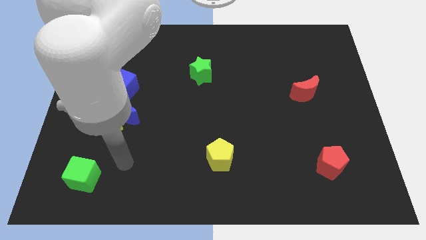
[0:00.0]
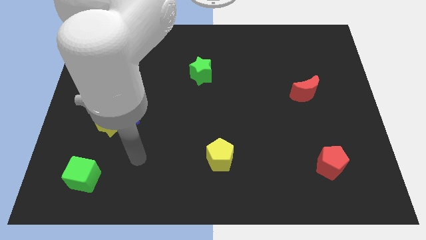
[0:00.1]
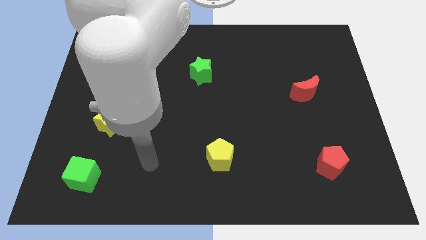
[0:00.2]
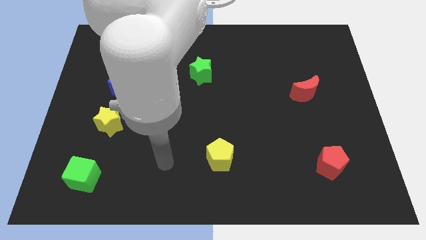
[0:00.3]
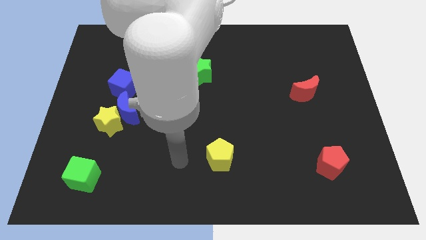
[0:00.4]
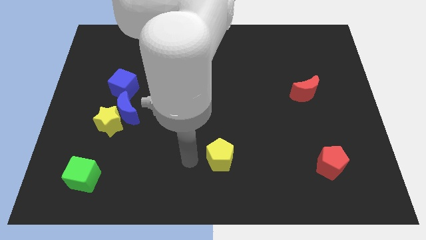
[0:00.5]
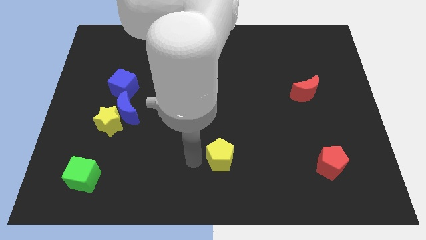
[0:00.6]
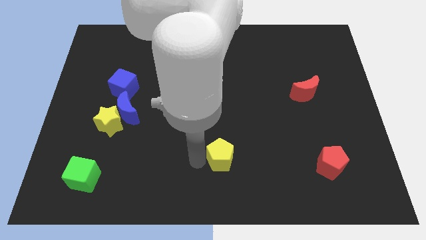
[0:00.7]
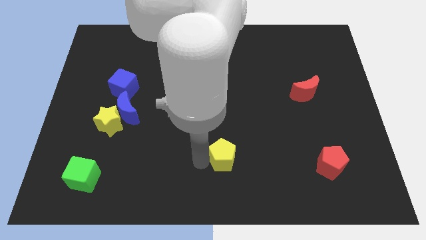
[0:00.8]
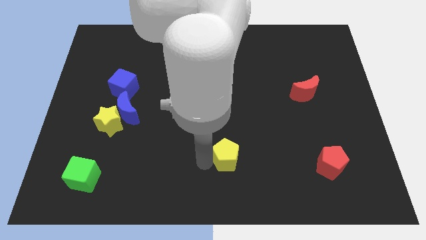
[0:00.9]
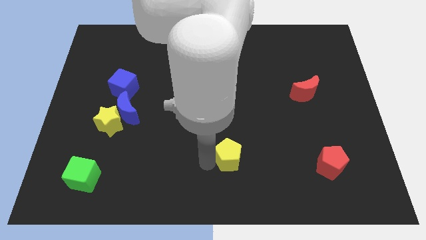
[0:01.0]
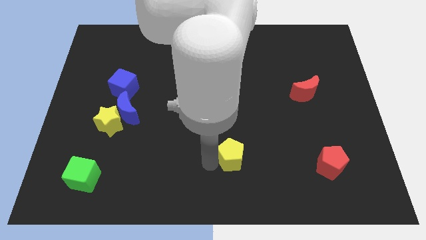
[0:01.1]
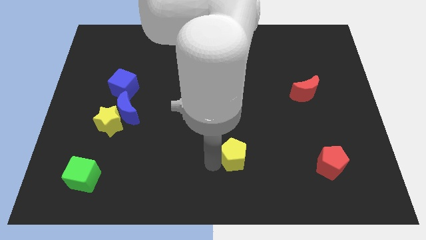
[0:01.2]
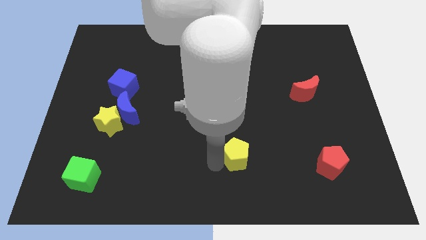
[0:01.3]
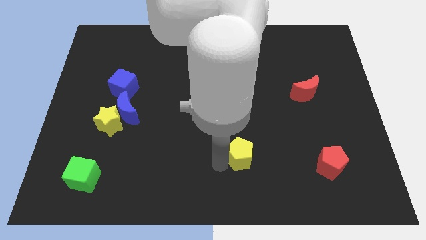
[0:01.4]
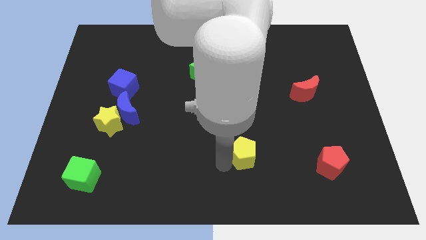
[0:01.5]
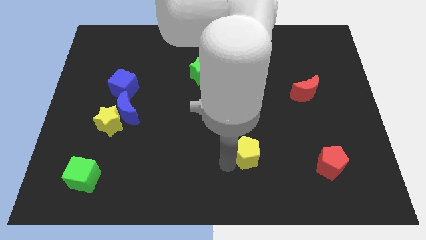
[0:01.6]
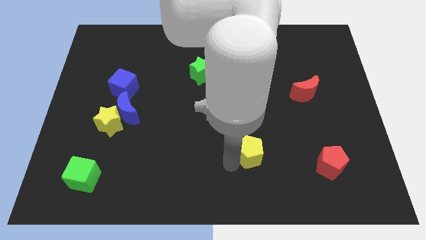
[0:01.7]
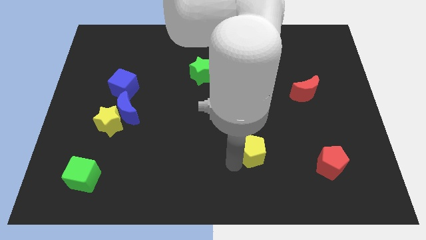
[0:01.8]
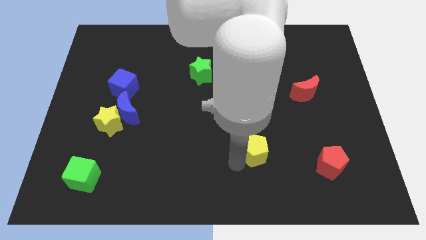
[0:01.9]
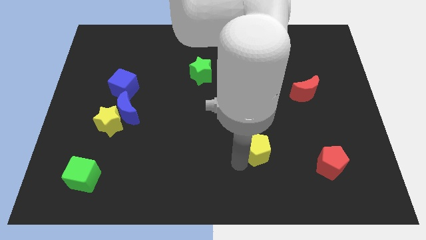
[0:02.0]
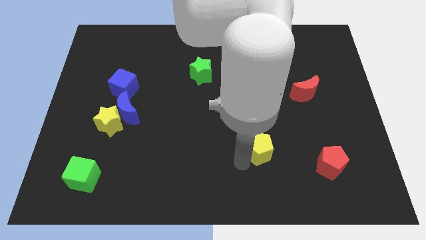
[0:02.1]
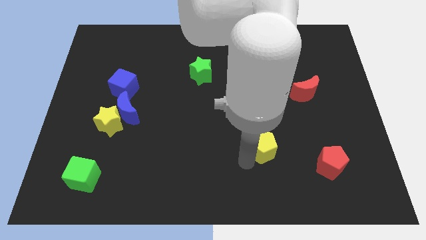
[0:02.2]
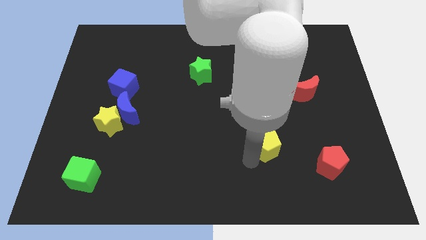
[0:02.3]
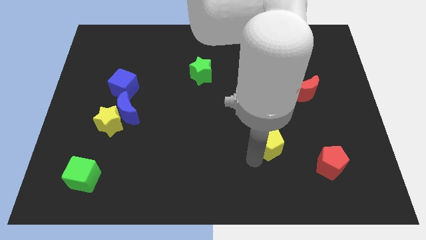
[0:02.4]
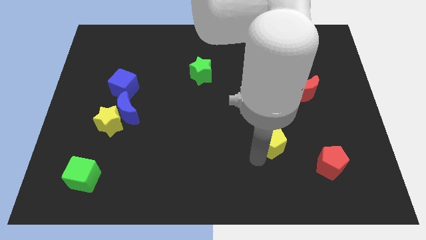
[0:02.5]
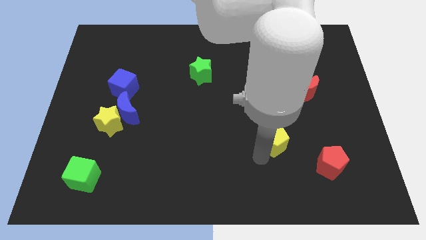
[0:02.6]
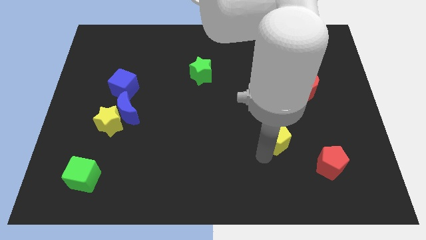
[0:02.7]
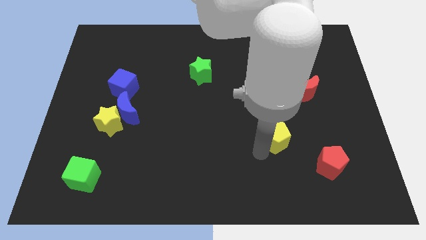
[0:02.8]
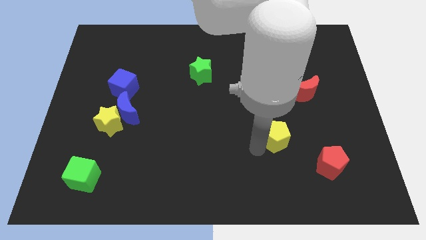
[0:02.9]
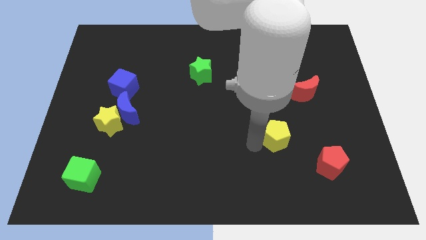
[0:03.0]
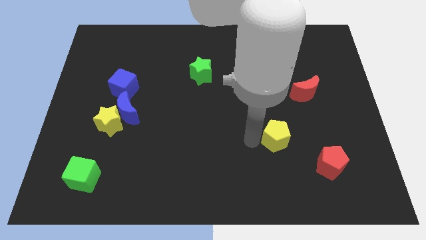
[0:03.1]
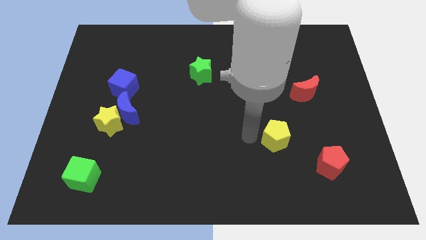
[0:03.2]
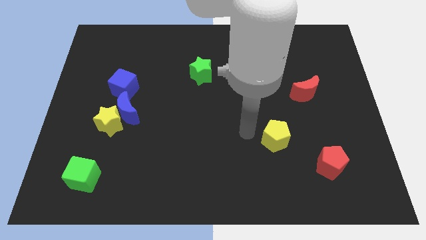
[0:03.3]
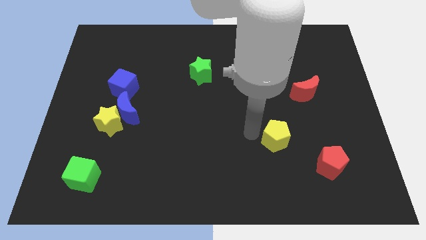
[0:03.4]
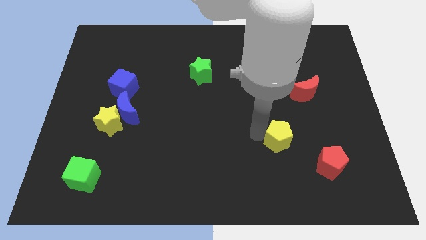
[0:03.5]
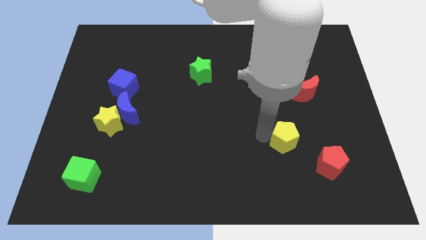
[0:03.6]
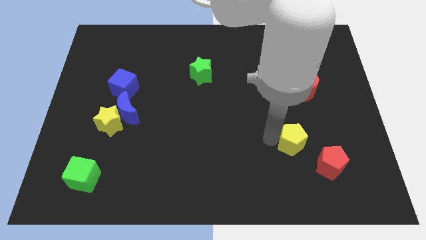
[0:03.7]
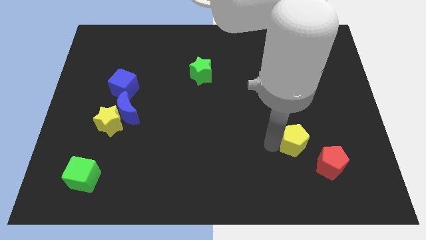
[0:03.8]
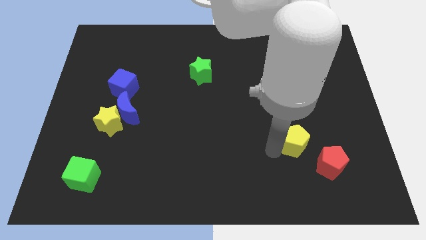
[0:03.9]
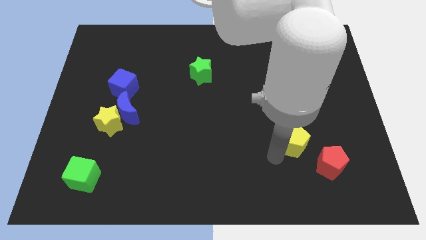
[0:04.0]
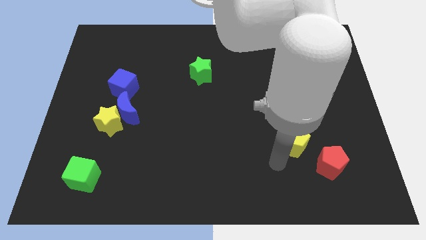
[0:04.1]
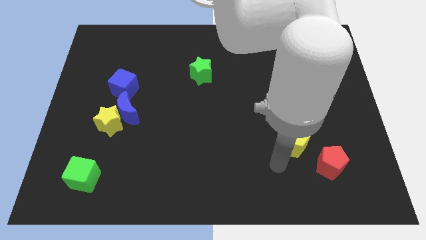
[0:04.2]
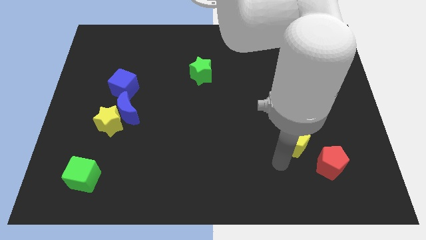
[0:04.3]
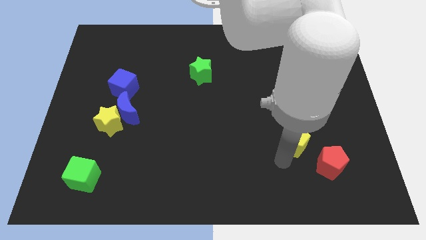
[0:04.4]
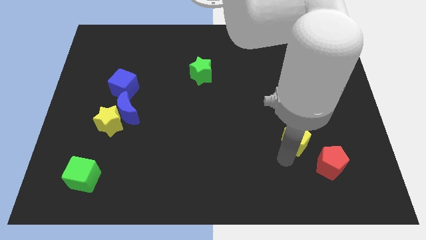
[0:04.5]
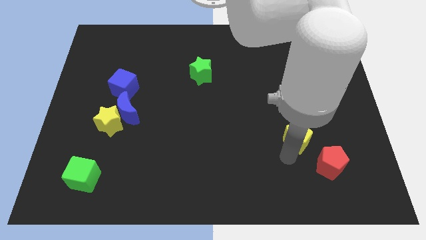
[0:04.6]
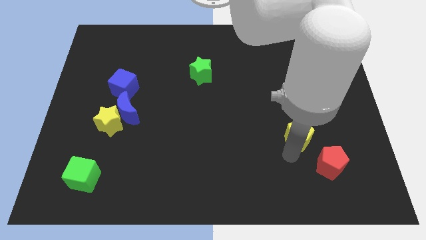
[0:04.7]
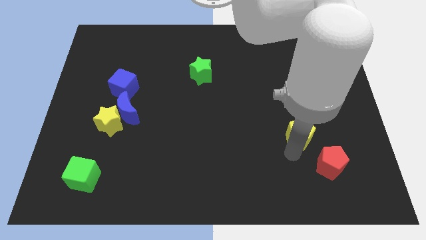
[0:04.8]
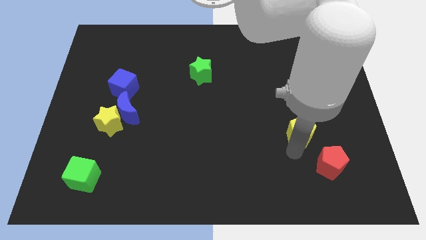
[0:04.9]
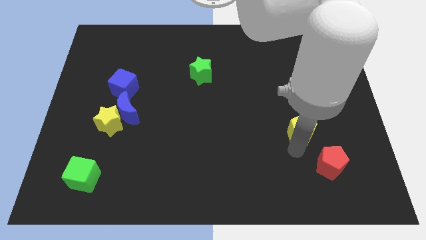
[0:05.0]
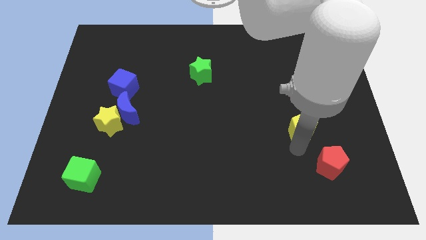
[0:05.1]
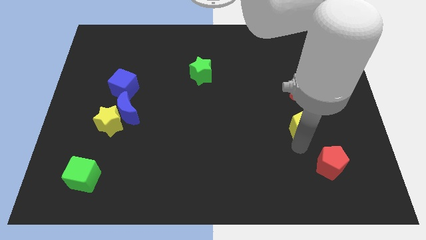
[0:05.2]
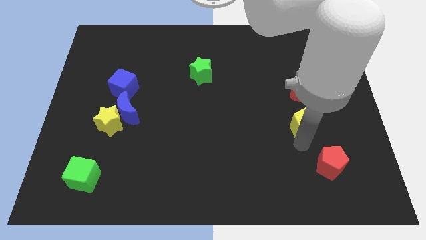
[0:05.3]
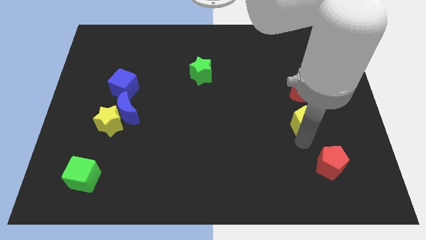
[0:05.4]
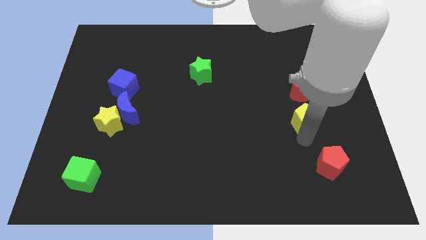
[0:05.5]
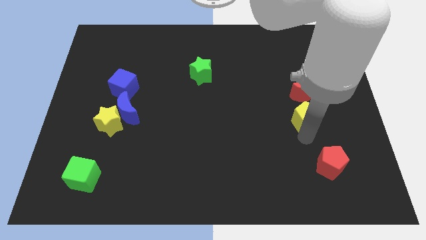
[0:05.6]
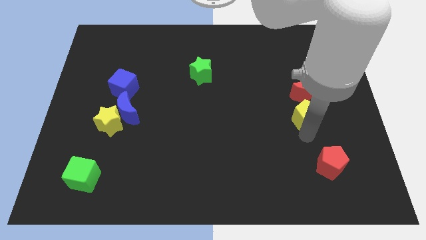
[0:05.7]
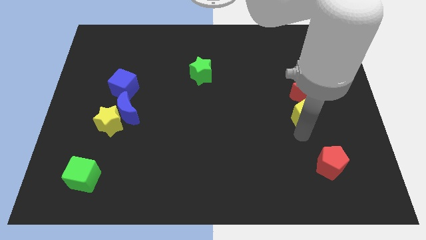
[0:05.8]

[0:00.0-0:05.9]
move the yellow pentagon diagonally upwards and to the right

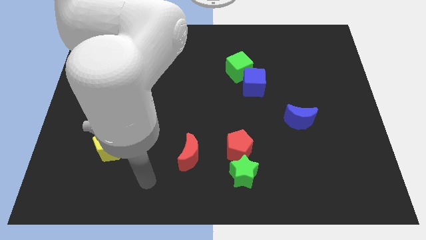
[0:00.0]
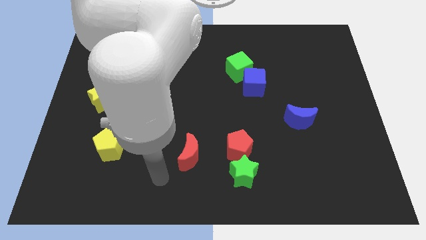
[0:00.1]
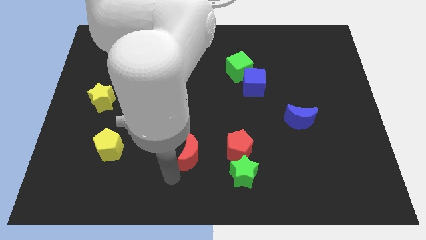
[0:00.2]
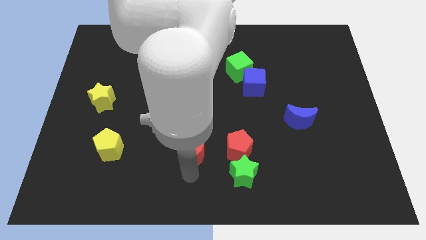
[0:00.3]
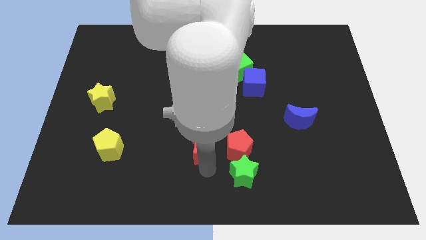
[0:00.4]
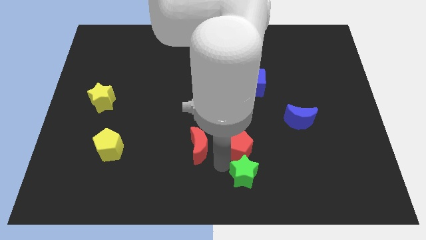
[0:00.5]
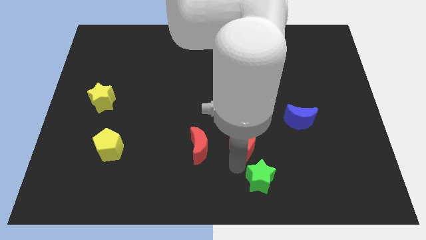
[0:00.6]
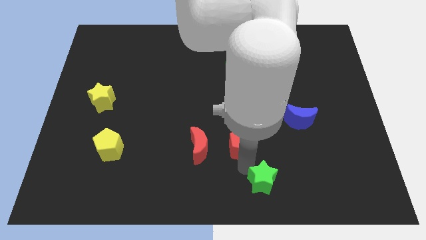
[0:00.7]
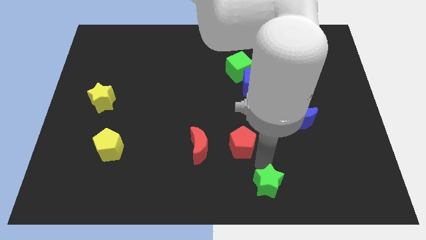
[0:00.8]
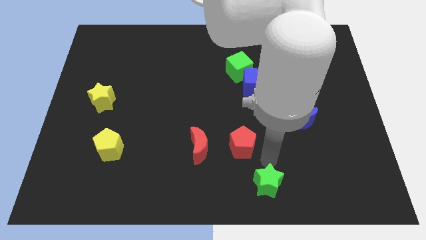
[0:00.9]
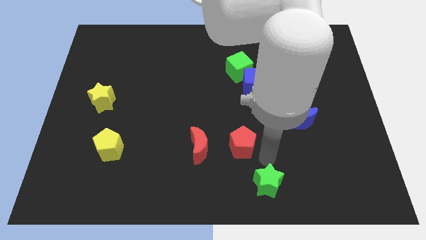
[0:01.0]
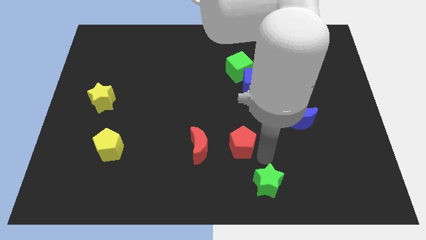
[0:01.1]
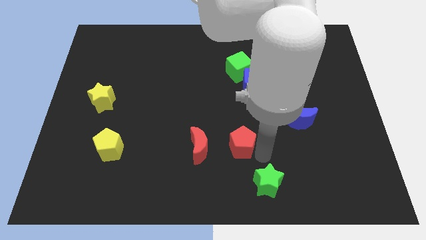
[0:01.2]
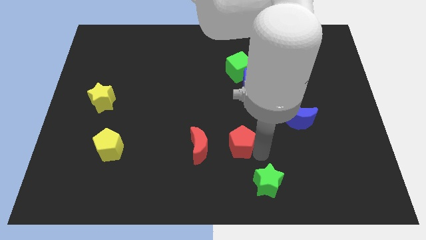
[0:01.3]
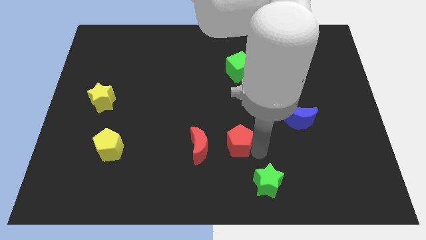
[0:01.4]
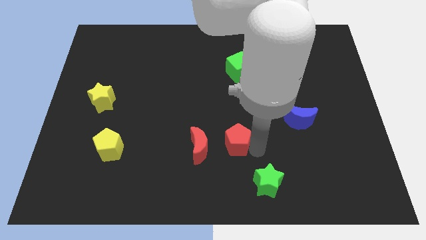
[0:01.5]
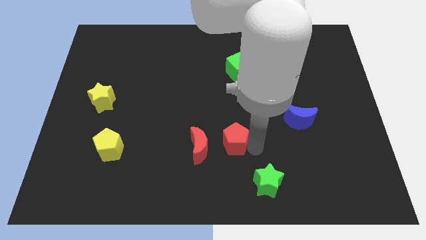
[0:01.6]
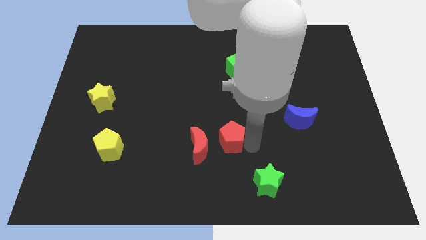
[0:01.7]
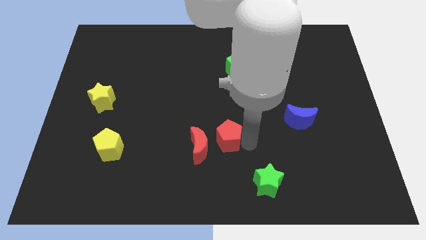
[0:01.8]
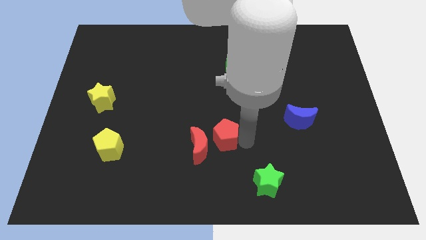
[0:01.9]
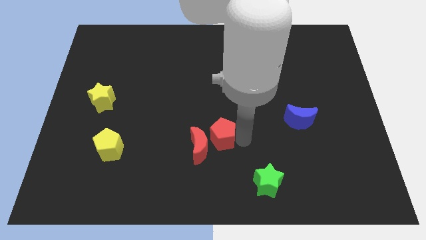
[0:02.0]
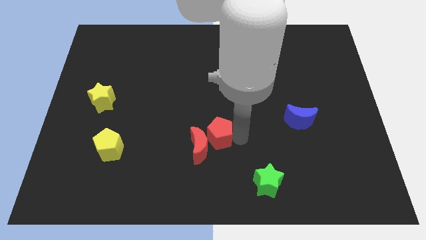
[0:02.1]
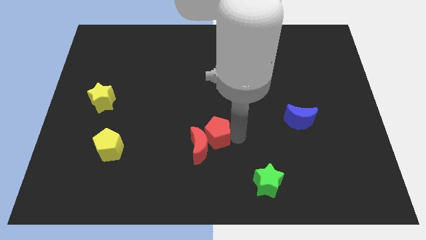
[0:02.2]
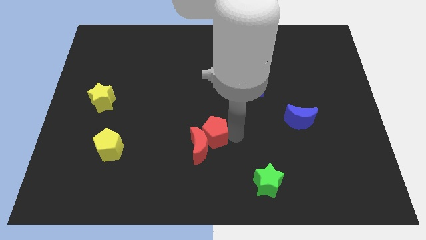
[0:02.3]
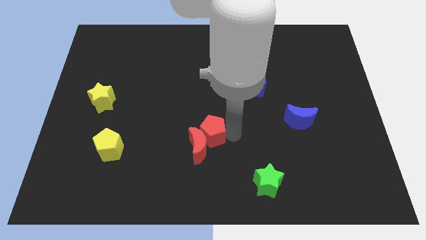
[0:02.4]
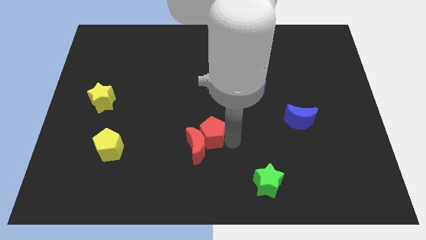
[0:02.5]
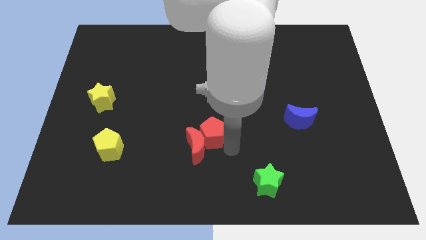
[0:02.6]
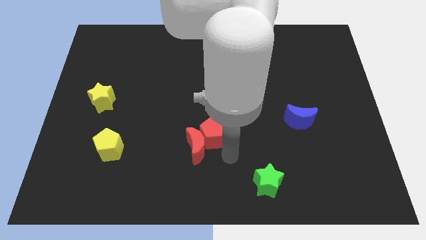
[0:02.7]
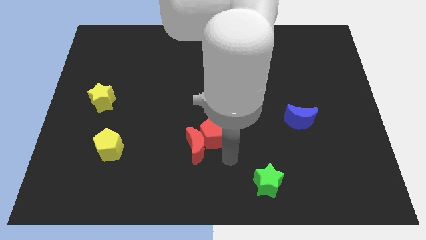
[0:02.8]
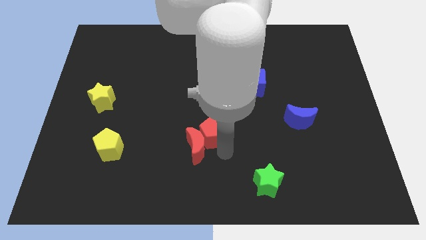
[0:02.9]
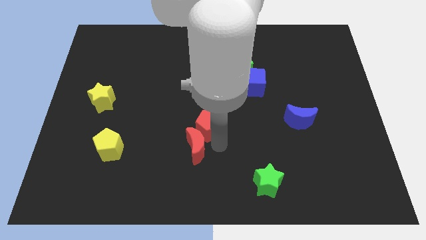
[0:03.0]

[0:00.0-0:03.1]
move the red pentagon diagonally up and to the left a little bit
